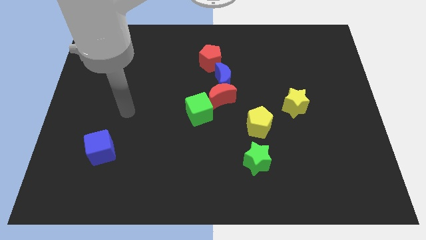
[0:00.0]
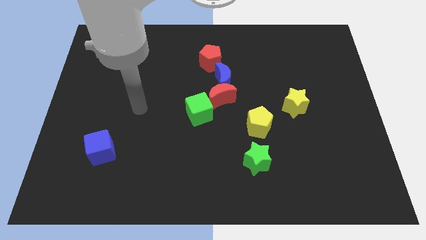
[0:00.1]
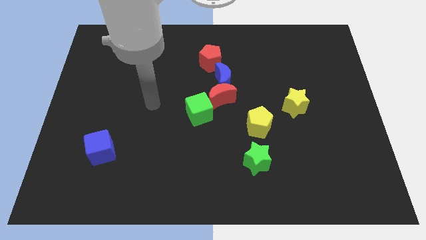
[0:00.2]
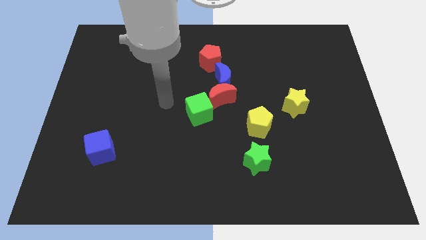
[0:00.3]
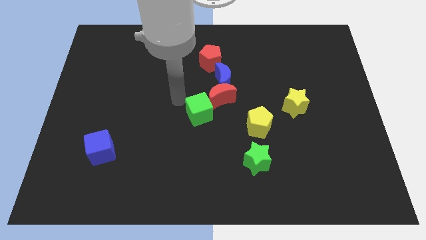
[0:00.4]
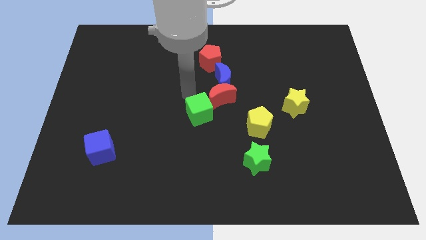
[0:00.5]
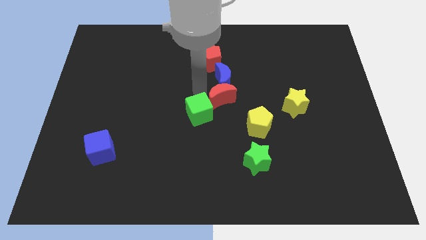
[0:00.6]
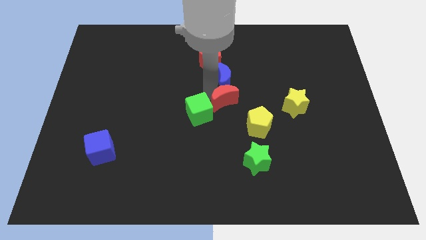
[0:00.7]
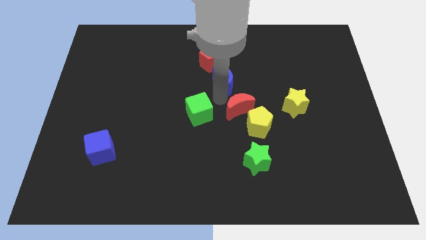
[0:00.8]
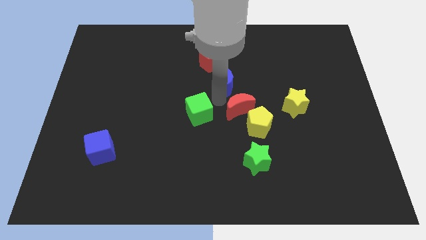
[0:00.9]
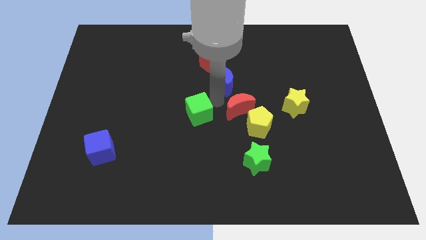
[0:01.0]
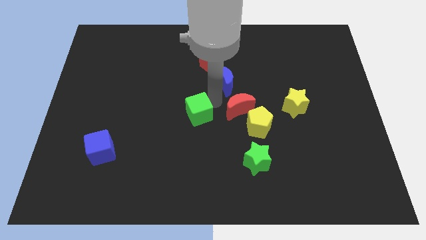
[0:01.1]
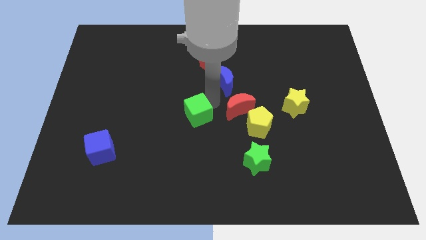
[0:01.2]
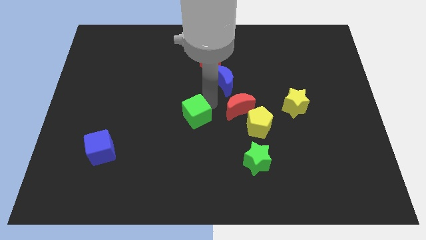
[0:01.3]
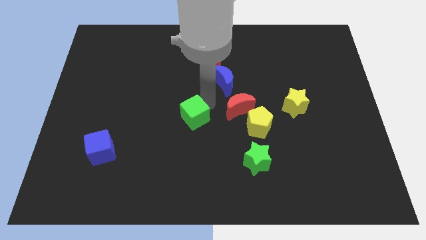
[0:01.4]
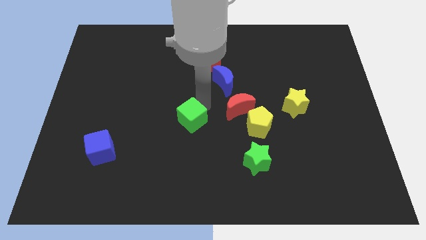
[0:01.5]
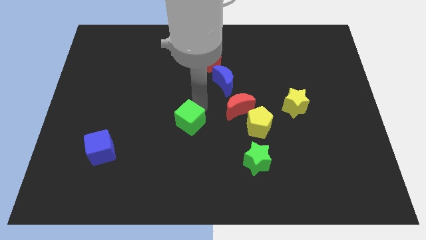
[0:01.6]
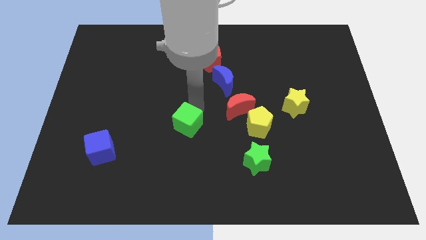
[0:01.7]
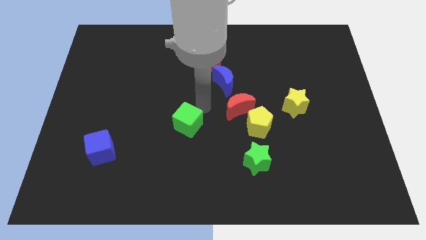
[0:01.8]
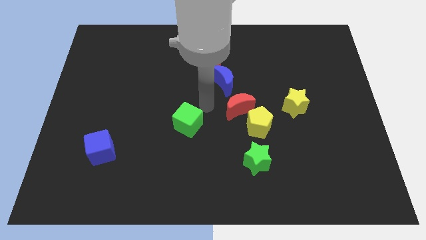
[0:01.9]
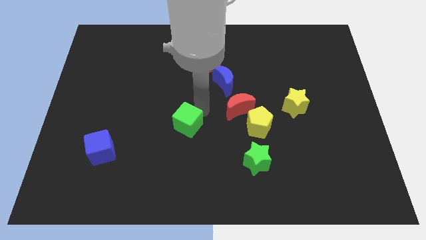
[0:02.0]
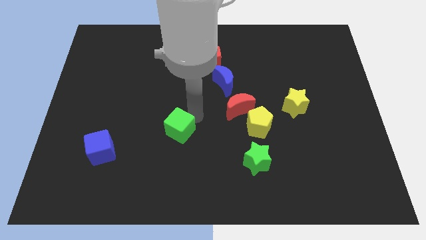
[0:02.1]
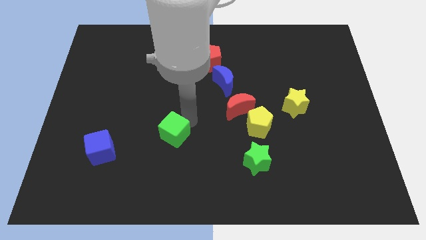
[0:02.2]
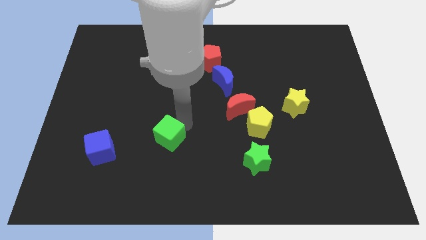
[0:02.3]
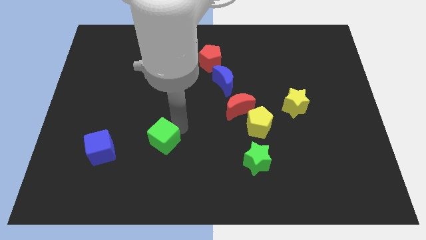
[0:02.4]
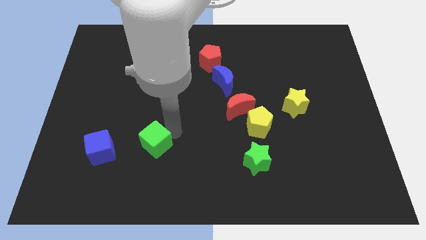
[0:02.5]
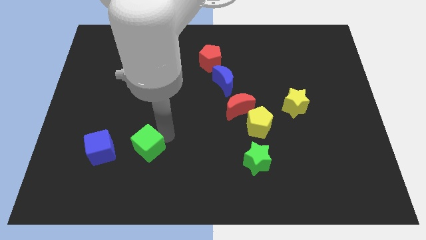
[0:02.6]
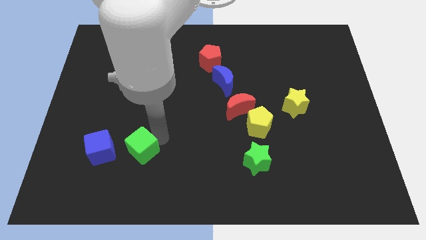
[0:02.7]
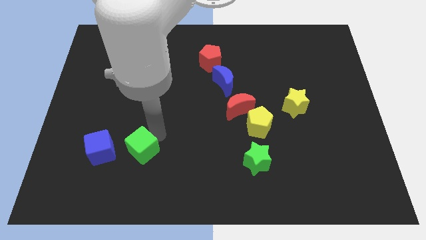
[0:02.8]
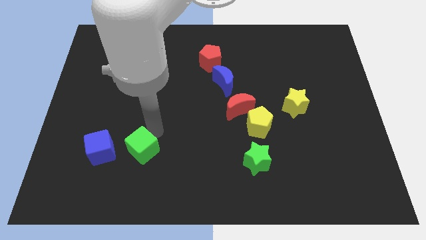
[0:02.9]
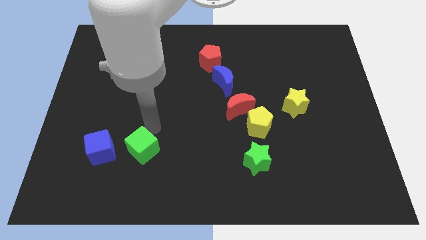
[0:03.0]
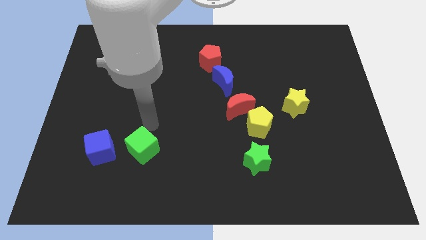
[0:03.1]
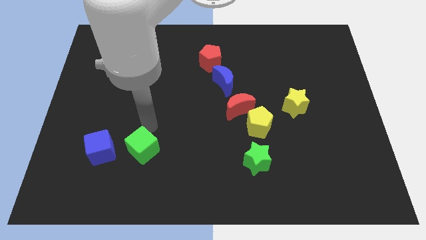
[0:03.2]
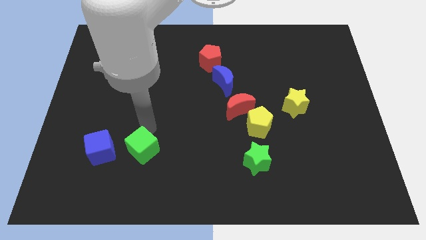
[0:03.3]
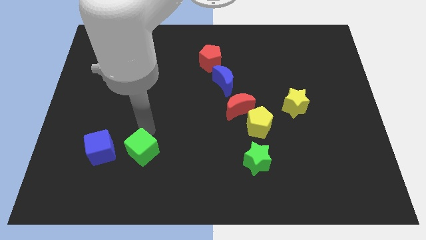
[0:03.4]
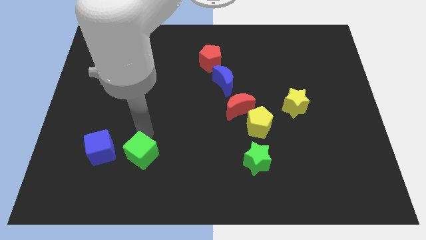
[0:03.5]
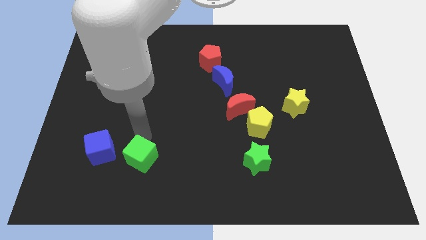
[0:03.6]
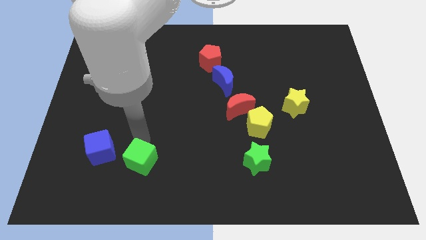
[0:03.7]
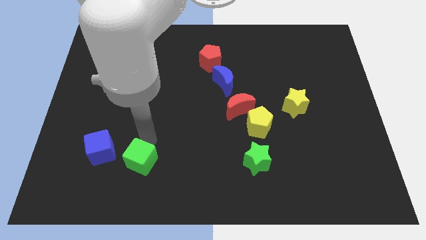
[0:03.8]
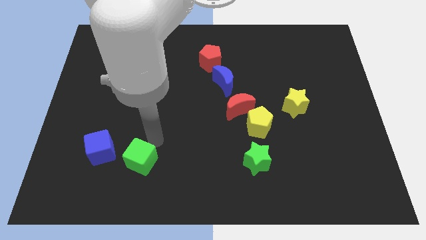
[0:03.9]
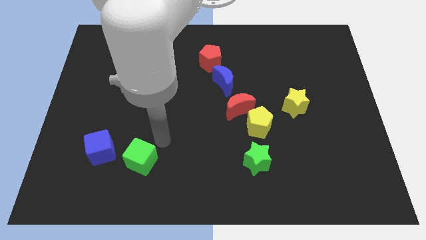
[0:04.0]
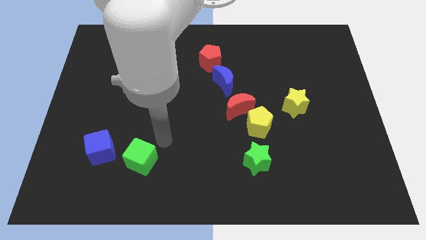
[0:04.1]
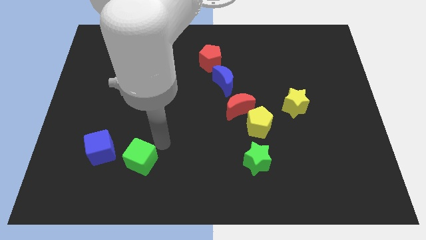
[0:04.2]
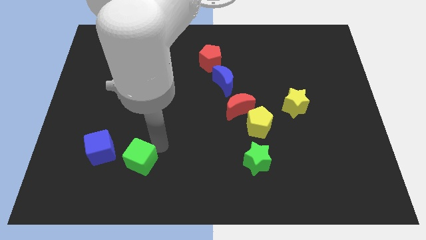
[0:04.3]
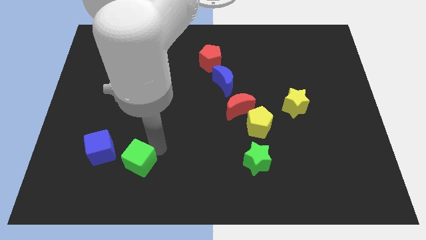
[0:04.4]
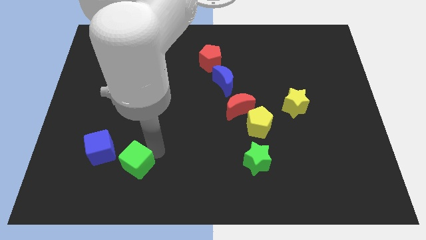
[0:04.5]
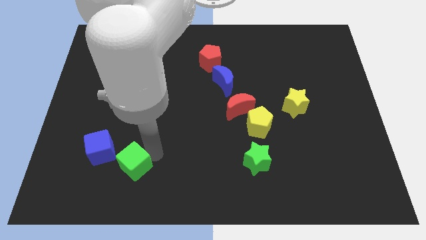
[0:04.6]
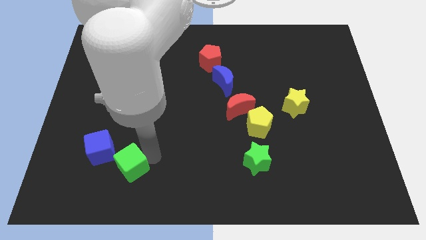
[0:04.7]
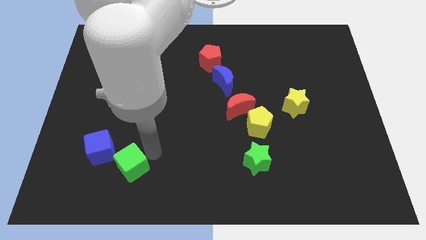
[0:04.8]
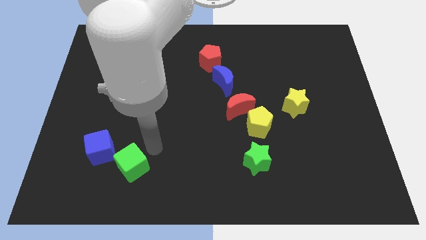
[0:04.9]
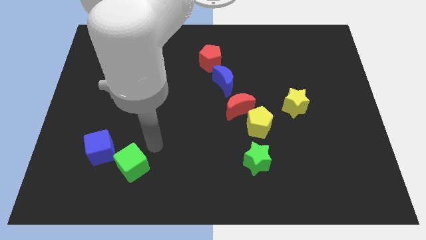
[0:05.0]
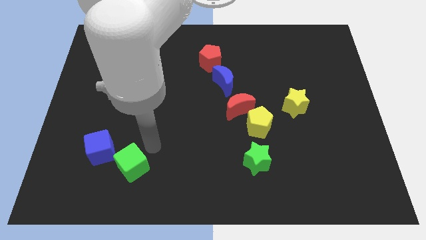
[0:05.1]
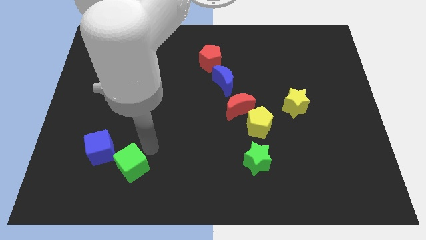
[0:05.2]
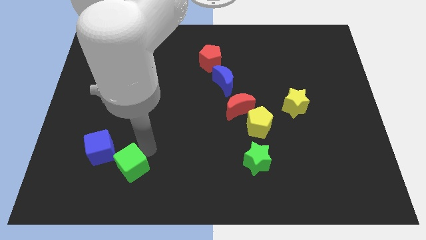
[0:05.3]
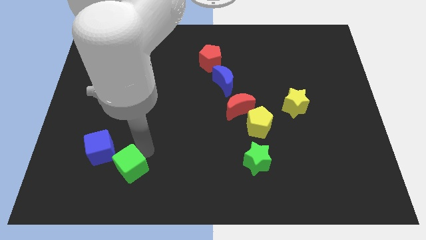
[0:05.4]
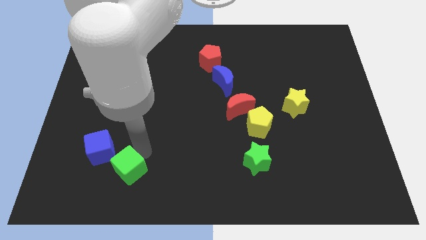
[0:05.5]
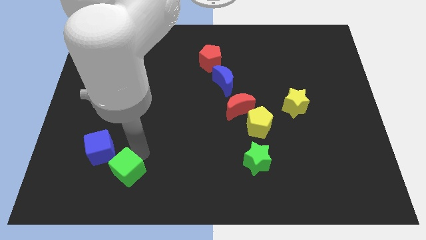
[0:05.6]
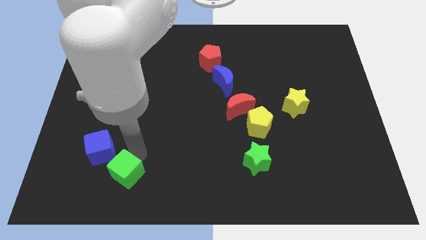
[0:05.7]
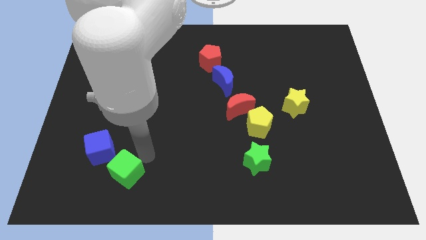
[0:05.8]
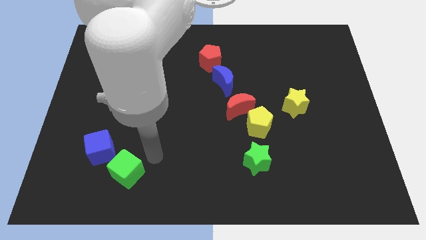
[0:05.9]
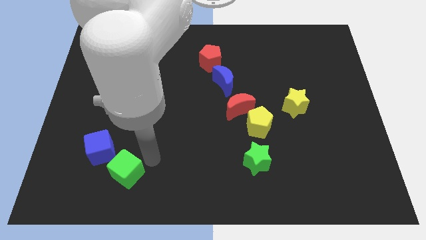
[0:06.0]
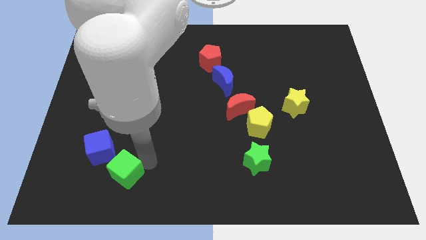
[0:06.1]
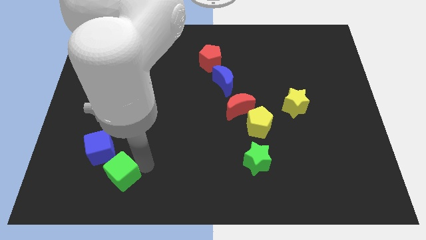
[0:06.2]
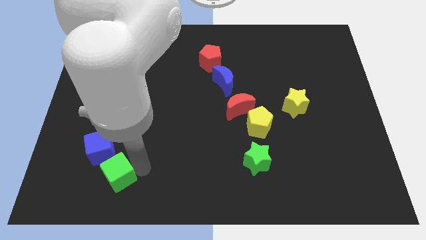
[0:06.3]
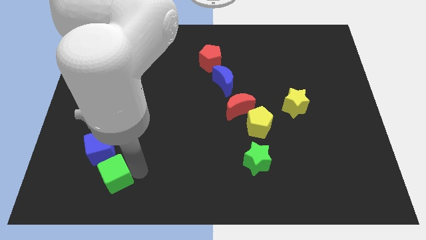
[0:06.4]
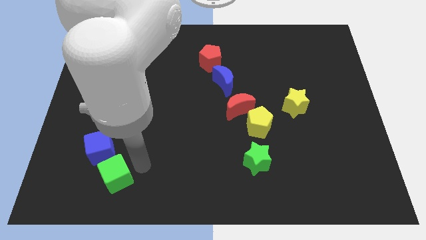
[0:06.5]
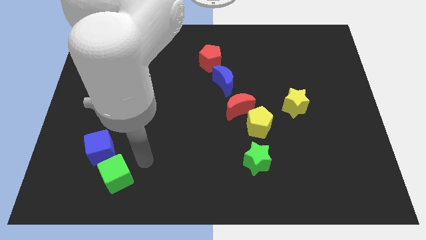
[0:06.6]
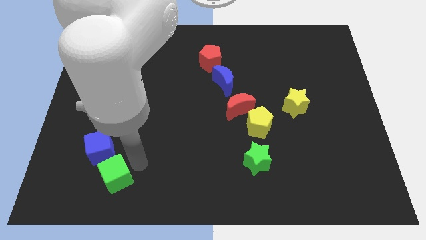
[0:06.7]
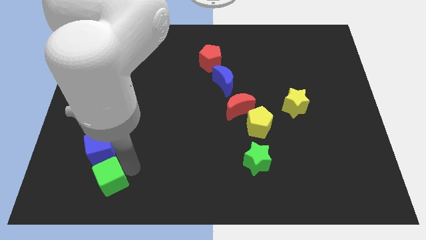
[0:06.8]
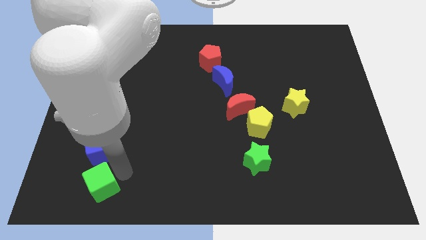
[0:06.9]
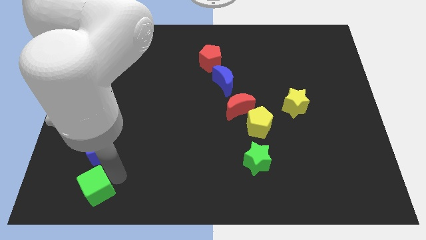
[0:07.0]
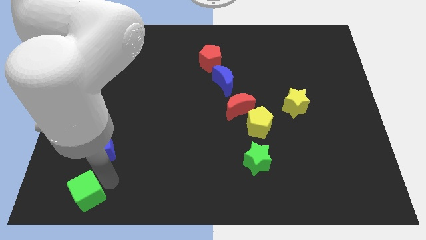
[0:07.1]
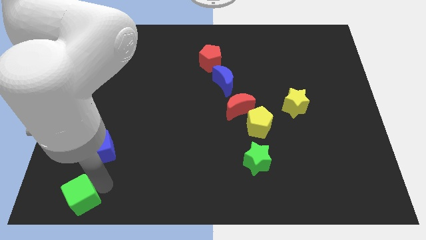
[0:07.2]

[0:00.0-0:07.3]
push the green cube to the lower left corner
